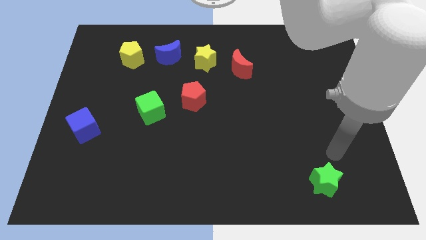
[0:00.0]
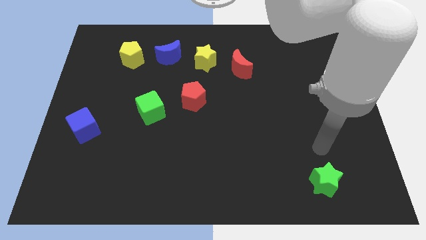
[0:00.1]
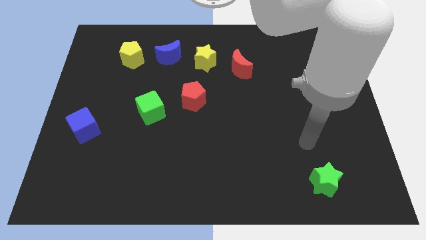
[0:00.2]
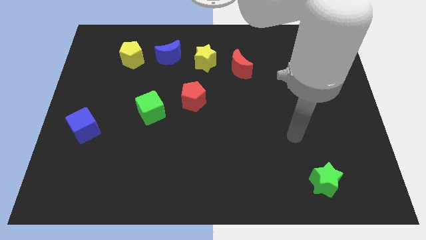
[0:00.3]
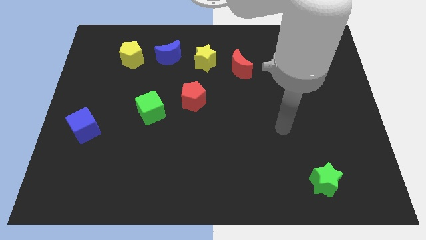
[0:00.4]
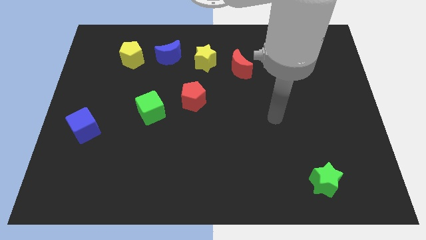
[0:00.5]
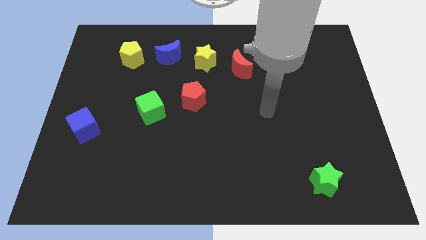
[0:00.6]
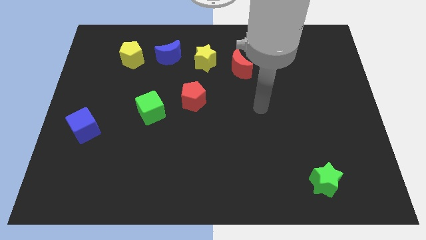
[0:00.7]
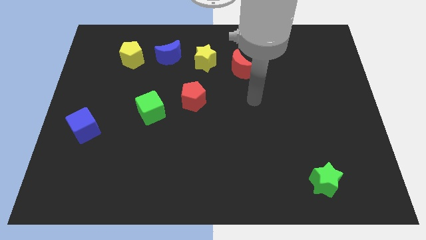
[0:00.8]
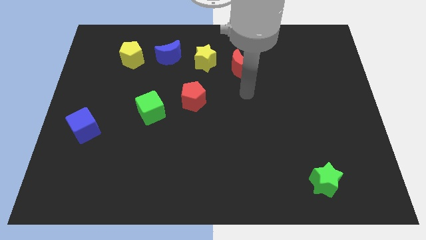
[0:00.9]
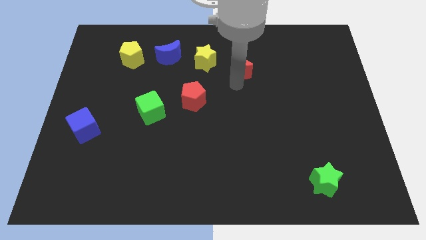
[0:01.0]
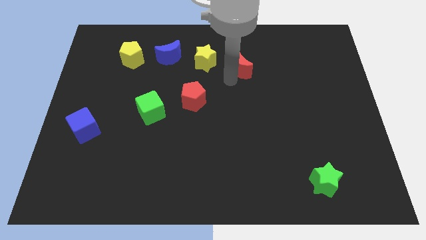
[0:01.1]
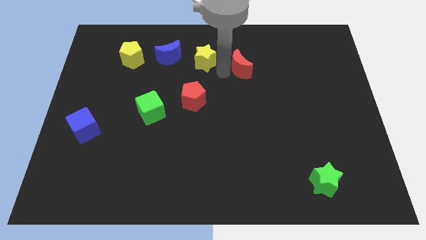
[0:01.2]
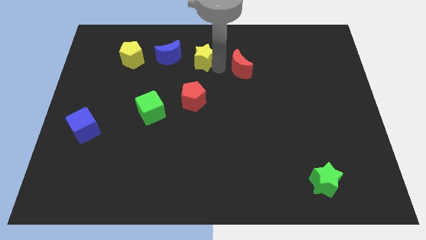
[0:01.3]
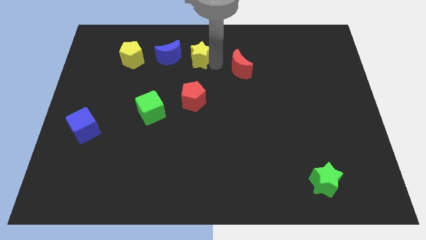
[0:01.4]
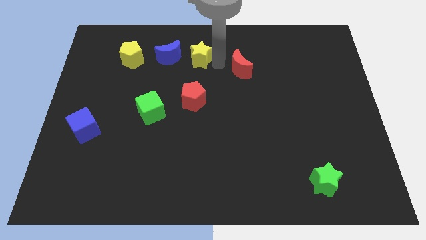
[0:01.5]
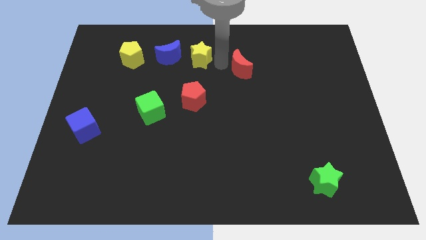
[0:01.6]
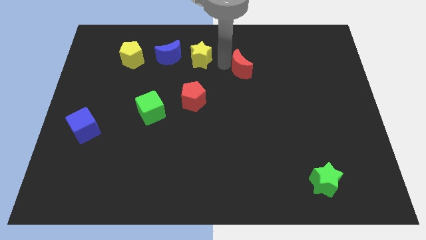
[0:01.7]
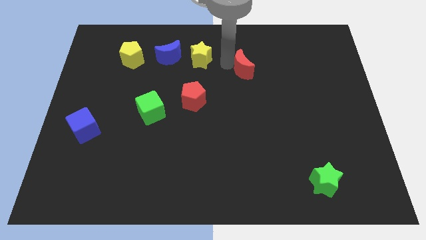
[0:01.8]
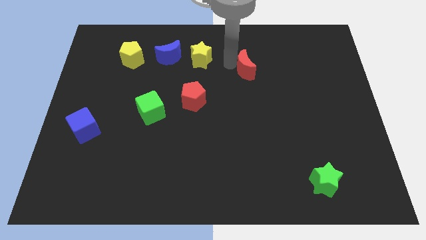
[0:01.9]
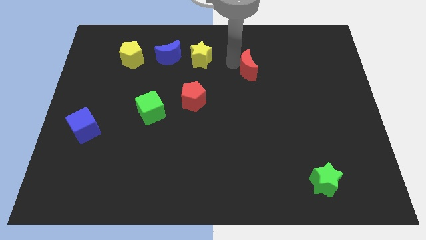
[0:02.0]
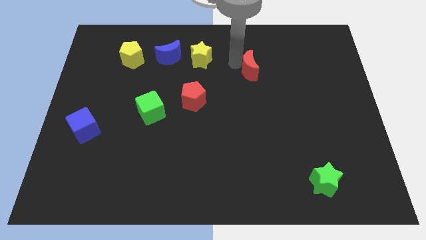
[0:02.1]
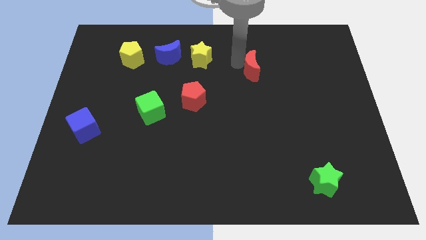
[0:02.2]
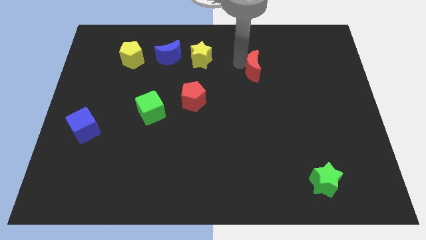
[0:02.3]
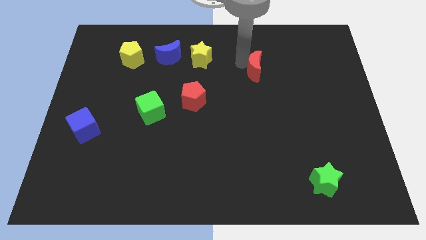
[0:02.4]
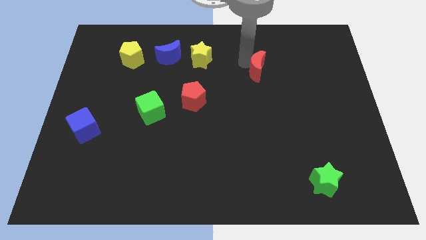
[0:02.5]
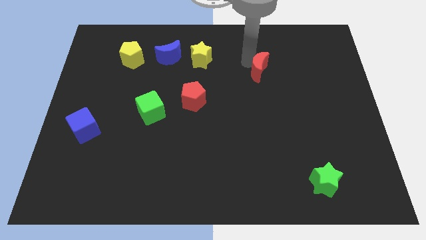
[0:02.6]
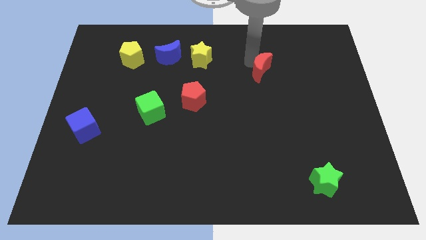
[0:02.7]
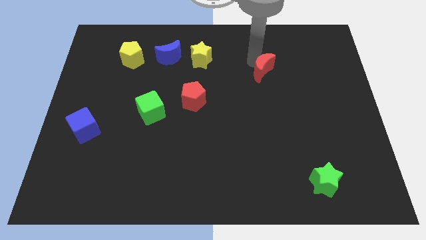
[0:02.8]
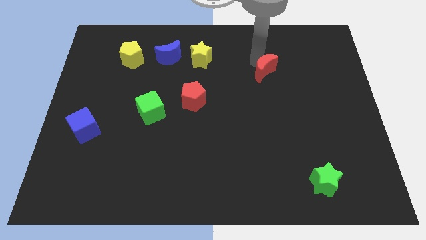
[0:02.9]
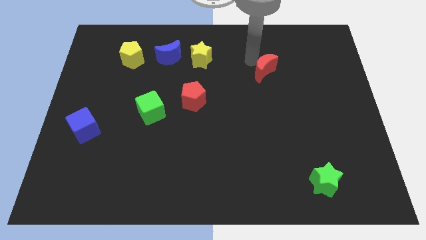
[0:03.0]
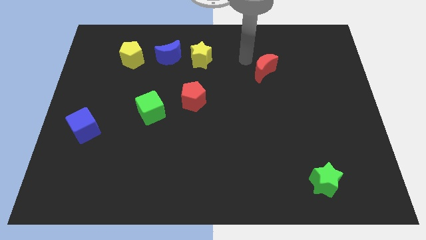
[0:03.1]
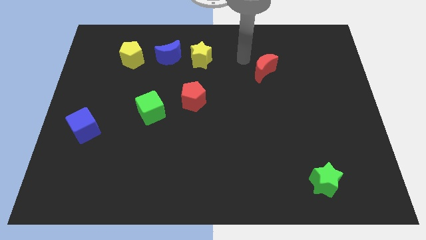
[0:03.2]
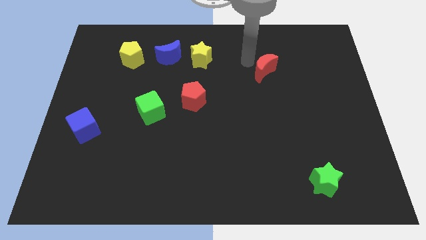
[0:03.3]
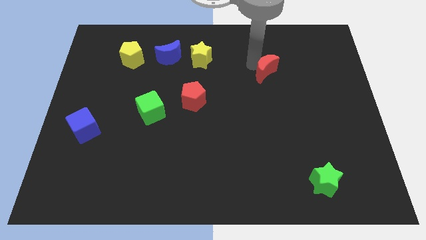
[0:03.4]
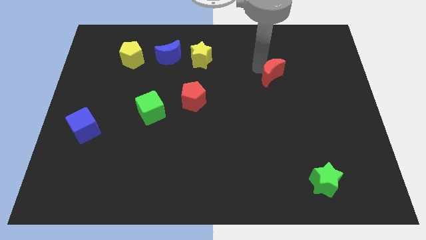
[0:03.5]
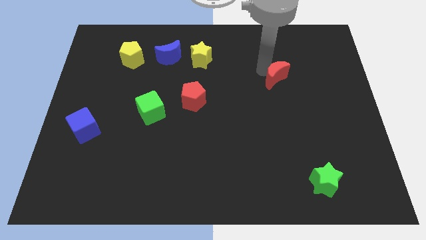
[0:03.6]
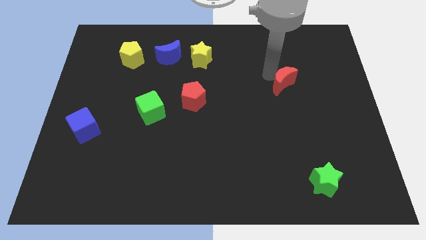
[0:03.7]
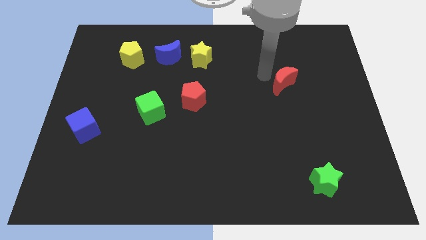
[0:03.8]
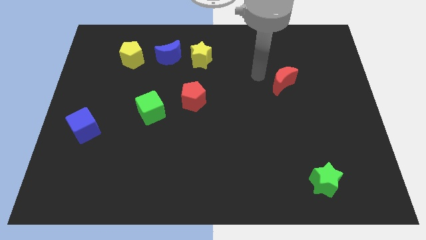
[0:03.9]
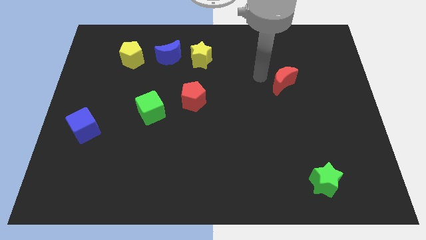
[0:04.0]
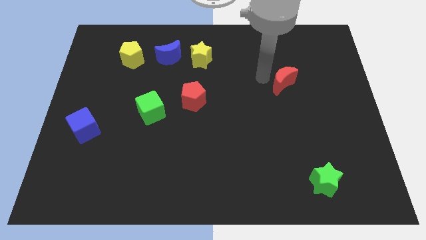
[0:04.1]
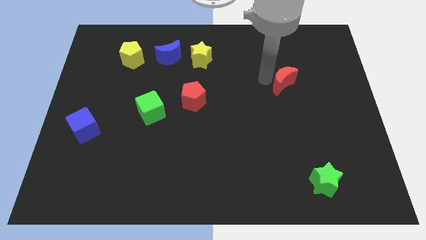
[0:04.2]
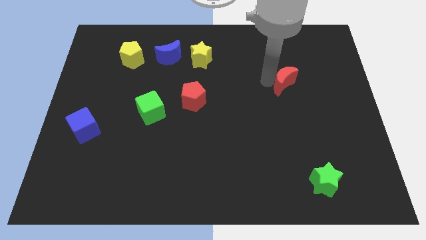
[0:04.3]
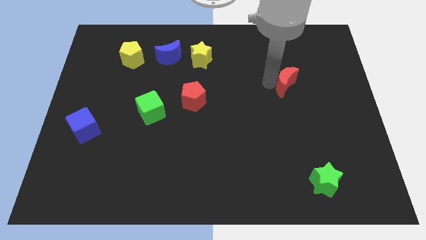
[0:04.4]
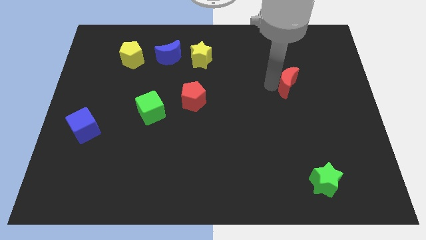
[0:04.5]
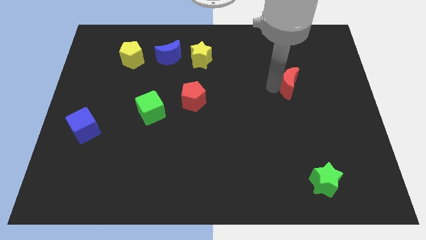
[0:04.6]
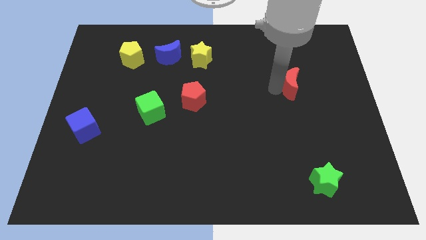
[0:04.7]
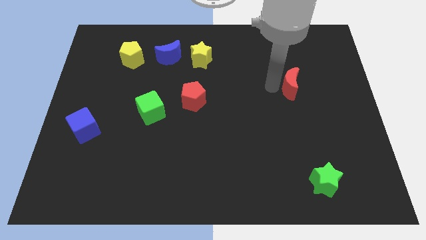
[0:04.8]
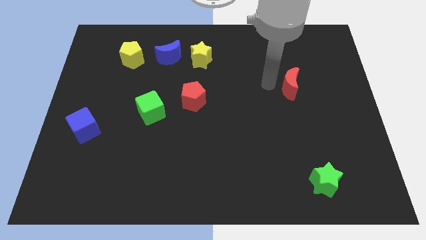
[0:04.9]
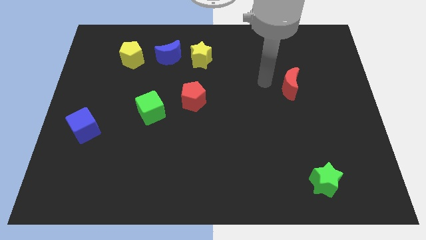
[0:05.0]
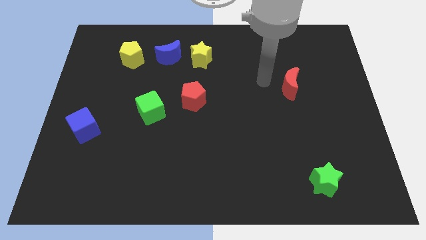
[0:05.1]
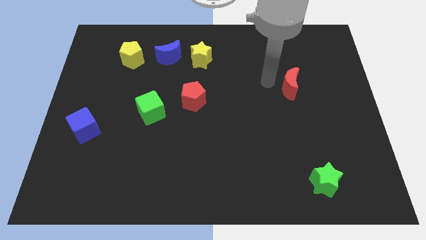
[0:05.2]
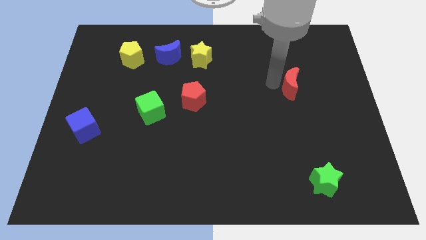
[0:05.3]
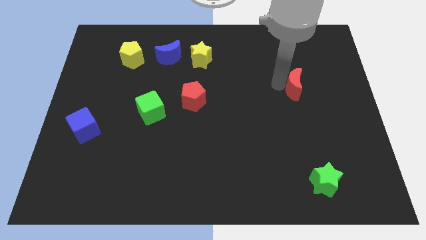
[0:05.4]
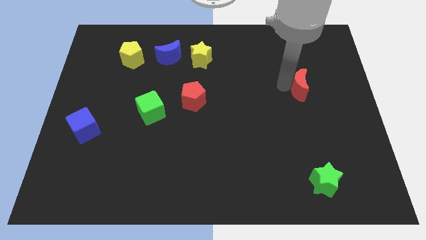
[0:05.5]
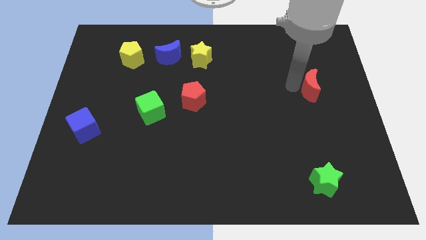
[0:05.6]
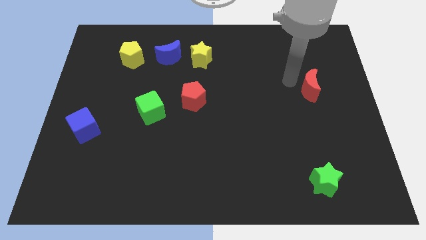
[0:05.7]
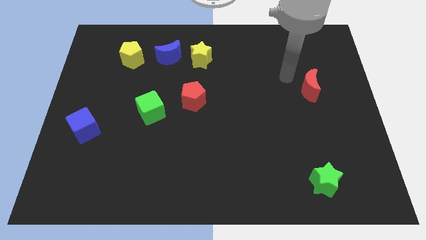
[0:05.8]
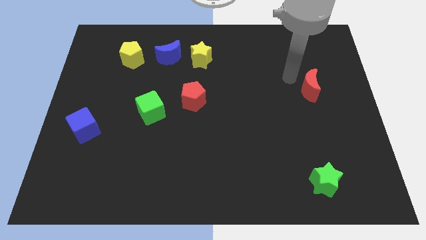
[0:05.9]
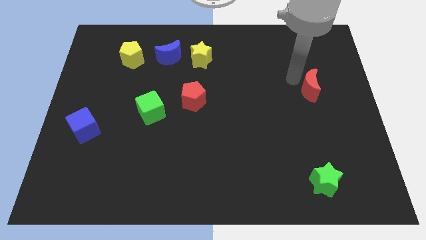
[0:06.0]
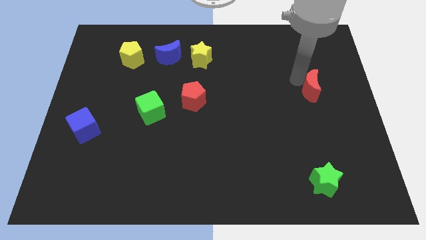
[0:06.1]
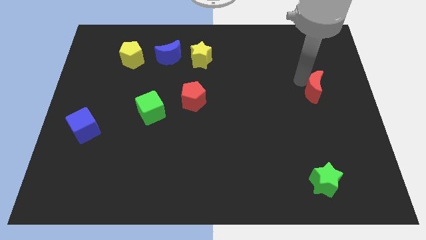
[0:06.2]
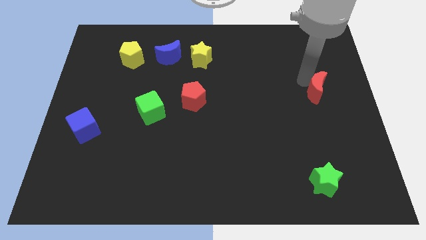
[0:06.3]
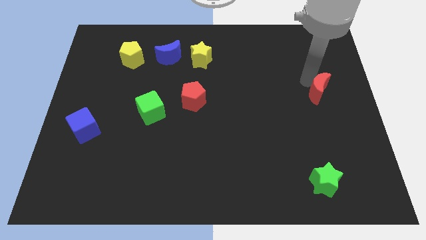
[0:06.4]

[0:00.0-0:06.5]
push the red moon to the right side
